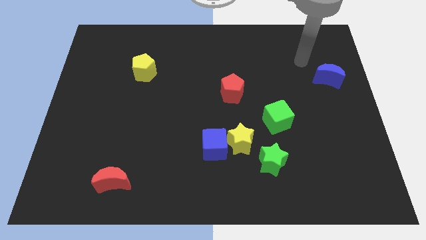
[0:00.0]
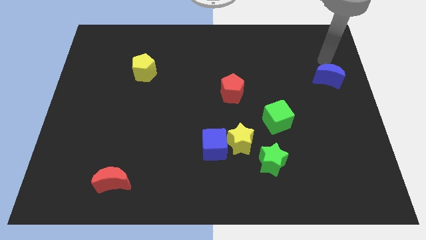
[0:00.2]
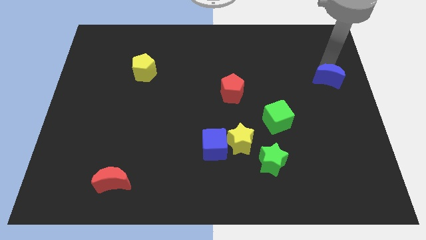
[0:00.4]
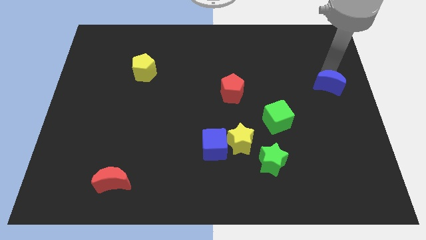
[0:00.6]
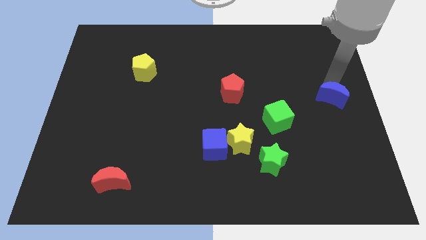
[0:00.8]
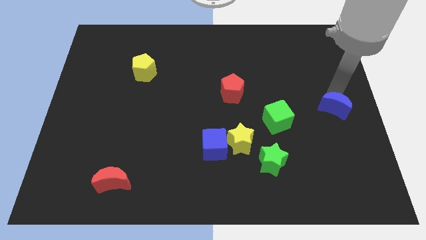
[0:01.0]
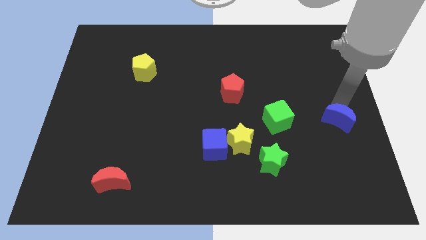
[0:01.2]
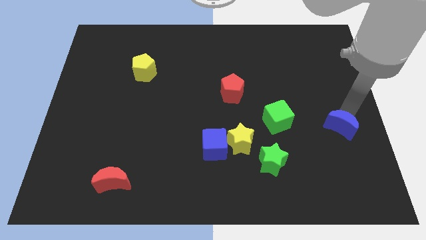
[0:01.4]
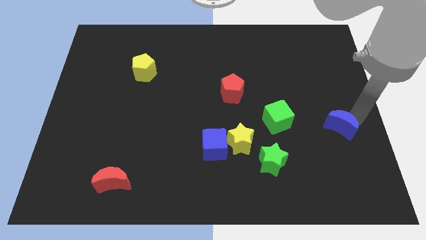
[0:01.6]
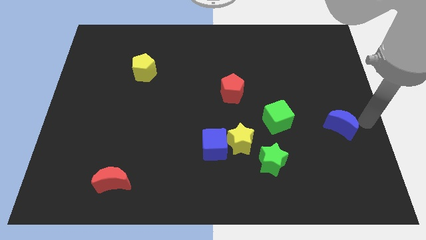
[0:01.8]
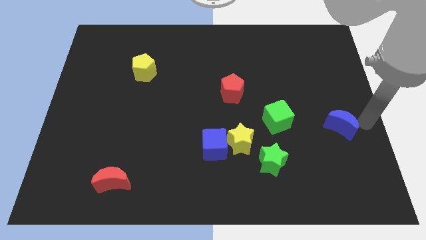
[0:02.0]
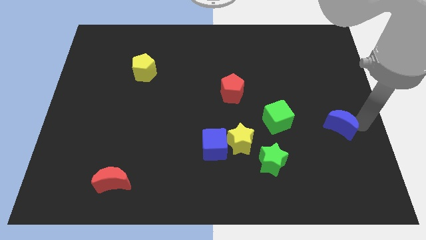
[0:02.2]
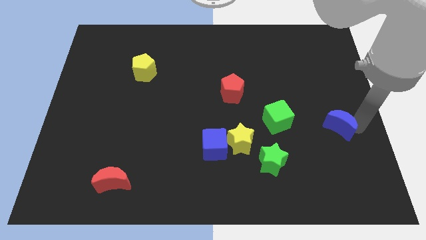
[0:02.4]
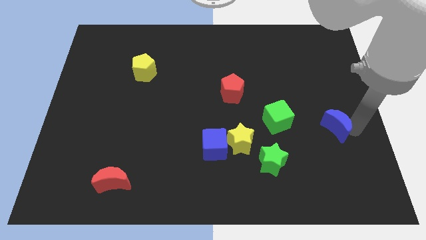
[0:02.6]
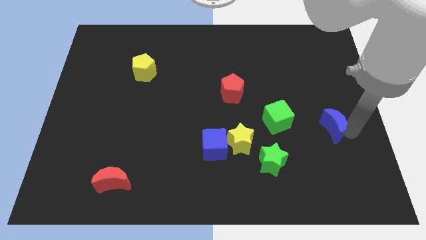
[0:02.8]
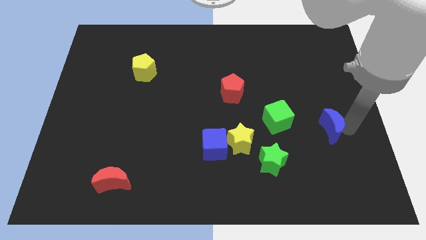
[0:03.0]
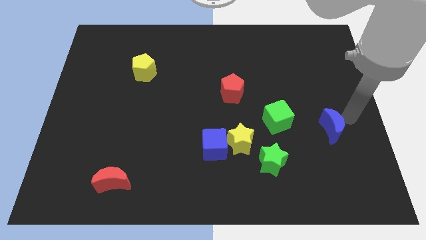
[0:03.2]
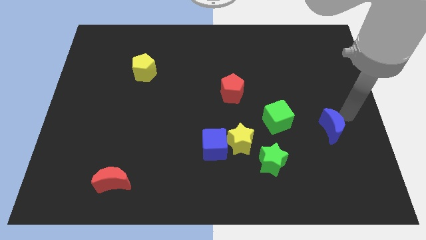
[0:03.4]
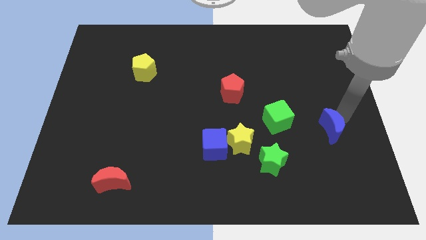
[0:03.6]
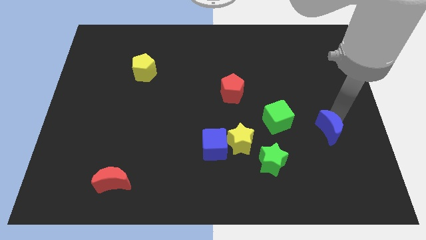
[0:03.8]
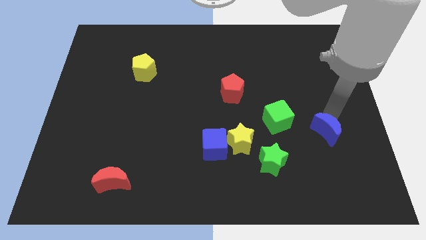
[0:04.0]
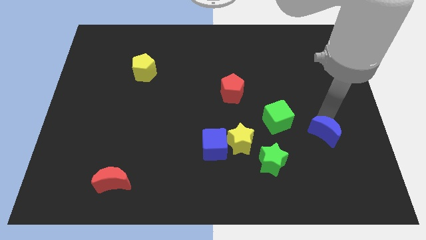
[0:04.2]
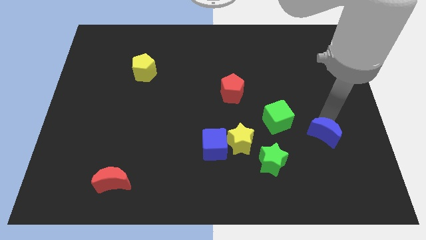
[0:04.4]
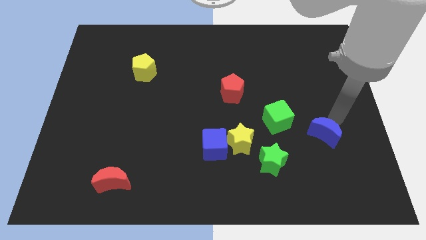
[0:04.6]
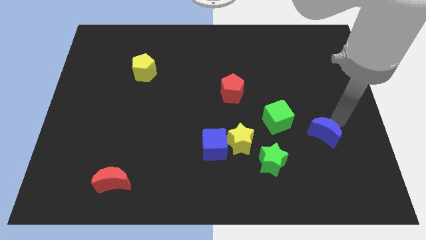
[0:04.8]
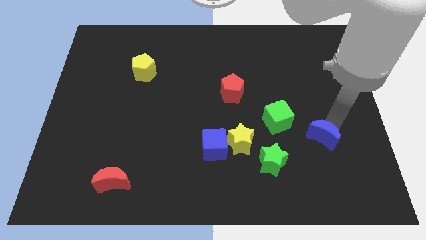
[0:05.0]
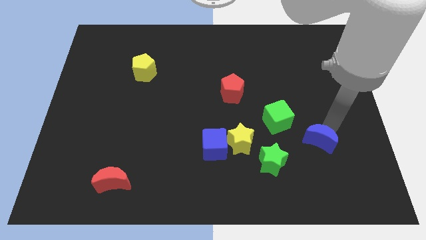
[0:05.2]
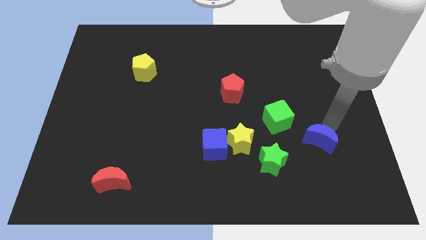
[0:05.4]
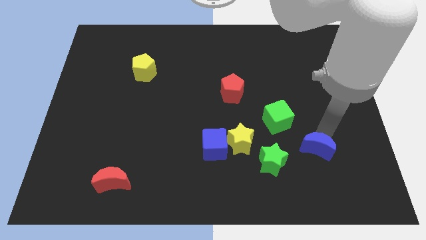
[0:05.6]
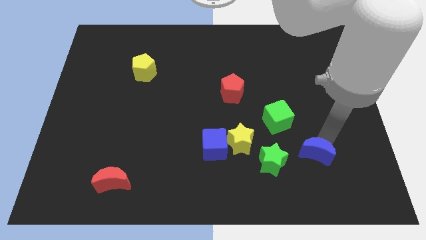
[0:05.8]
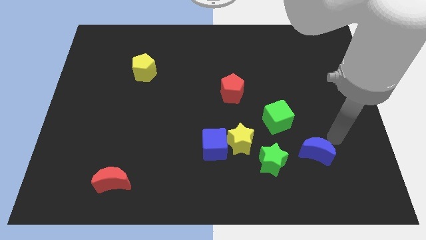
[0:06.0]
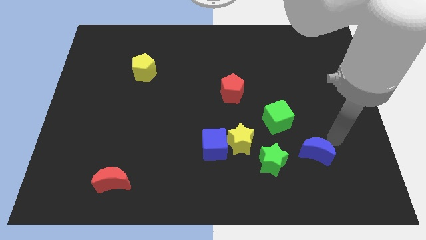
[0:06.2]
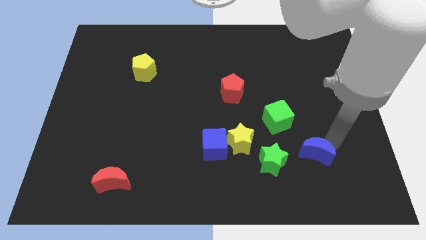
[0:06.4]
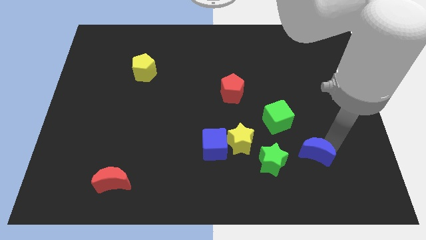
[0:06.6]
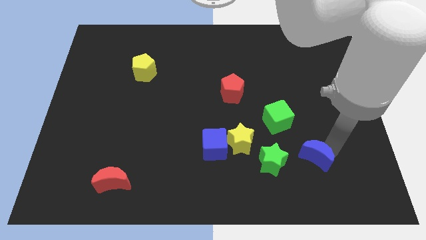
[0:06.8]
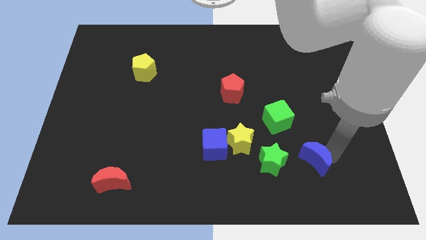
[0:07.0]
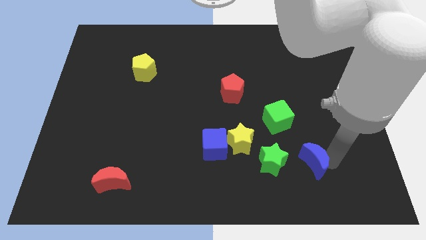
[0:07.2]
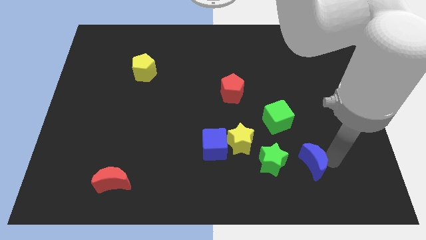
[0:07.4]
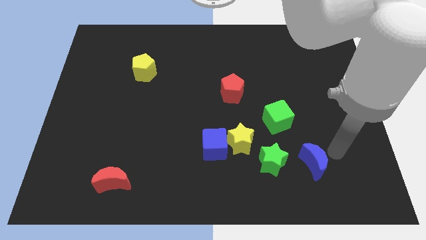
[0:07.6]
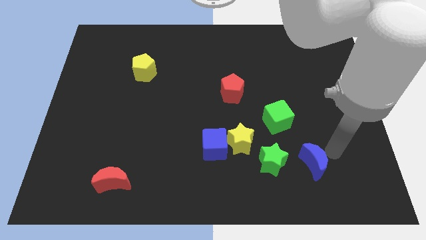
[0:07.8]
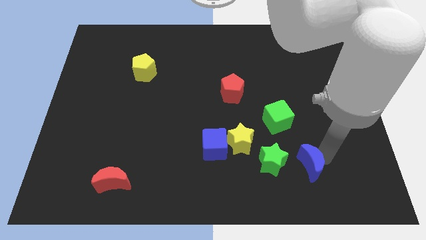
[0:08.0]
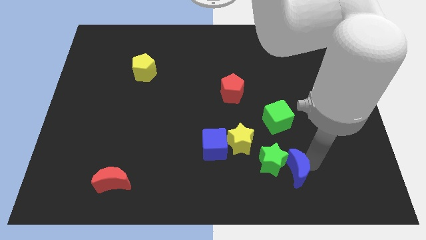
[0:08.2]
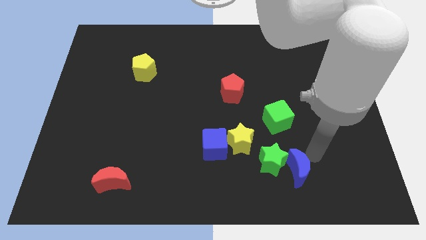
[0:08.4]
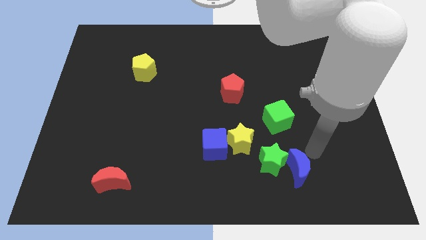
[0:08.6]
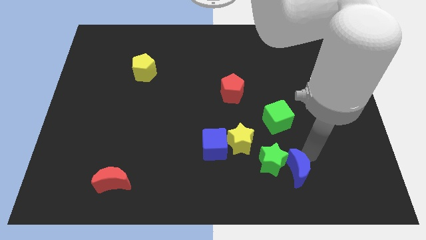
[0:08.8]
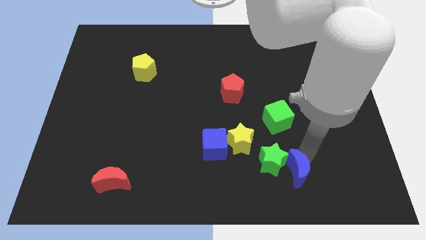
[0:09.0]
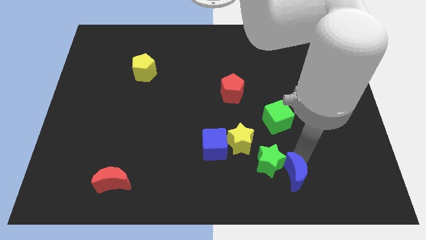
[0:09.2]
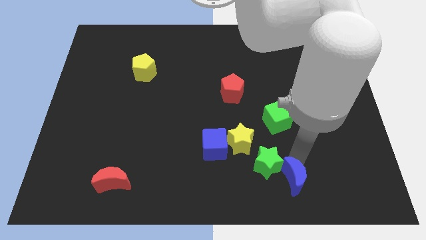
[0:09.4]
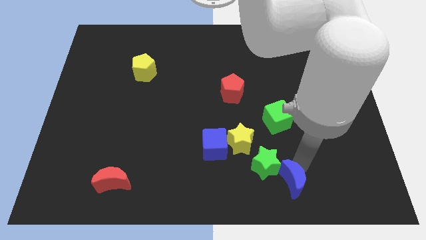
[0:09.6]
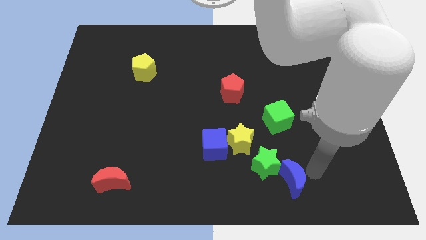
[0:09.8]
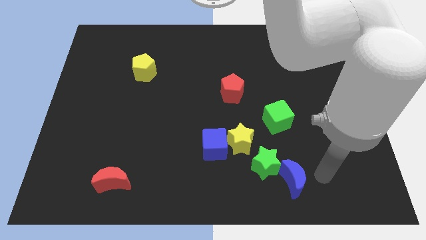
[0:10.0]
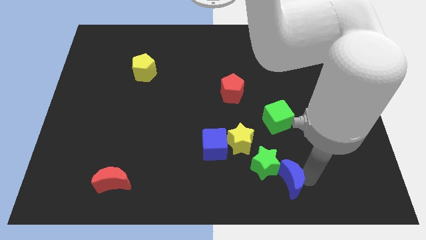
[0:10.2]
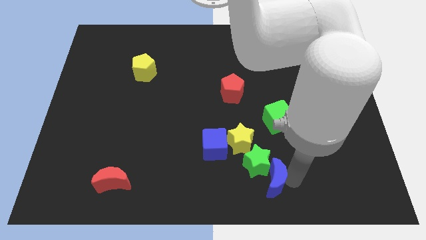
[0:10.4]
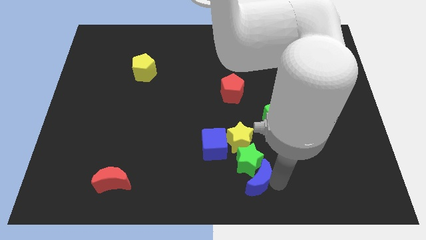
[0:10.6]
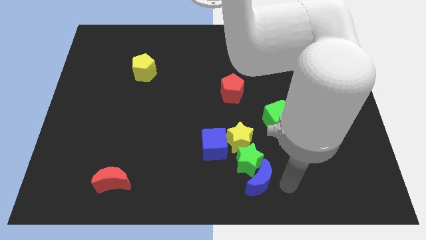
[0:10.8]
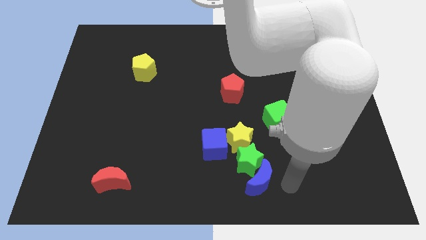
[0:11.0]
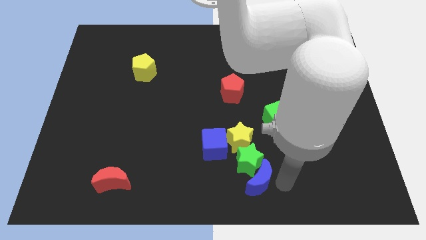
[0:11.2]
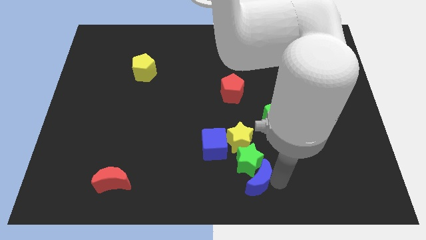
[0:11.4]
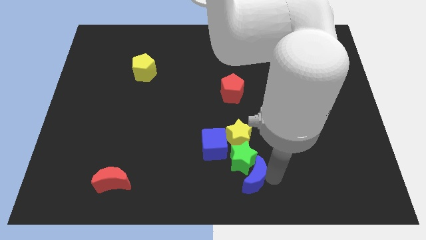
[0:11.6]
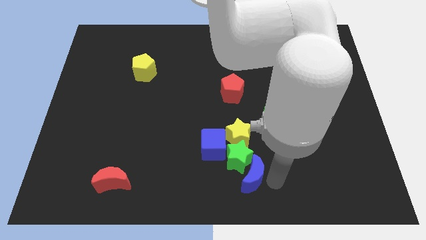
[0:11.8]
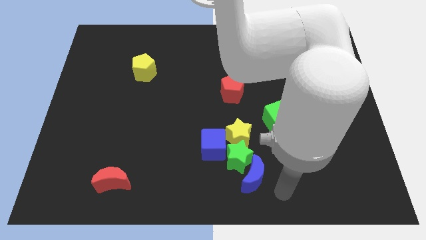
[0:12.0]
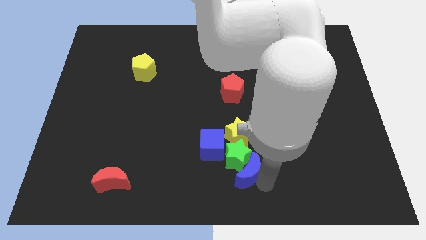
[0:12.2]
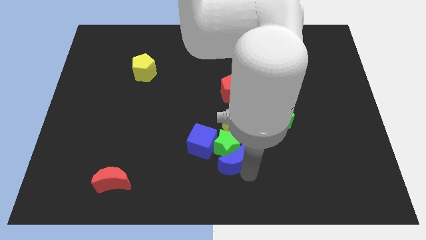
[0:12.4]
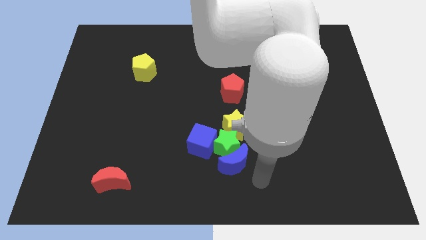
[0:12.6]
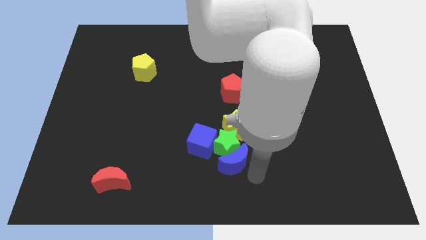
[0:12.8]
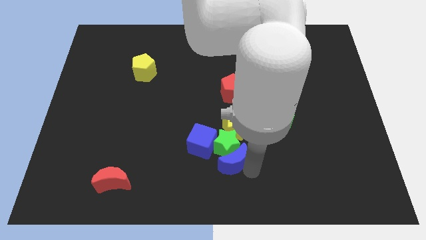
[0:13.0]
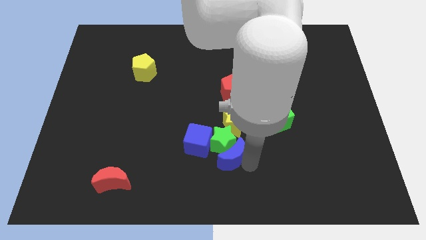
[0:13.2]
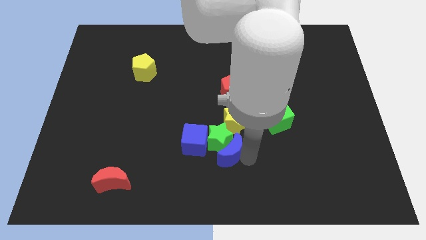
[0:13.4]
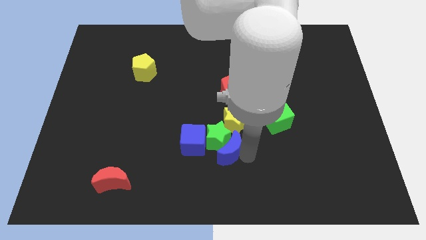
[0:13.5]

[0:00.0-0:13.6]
push the blue moon diagonally down and to the left of the yellow star

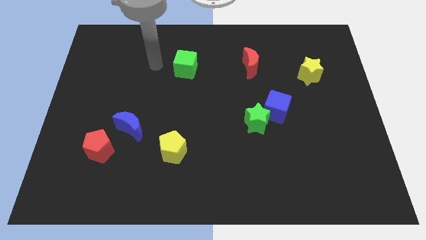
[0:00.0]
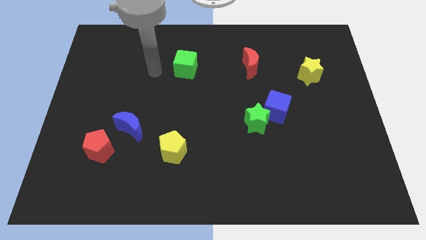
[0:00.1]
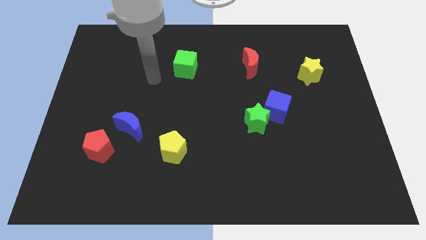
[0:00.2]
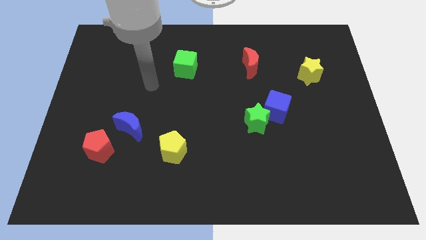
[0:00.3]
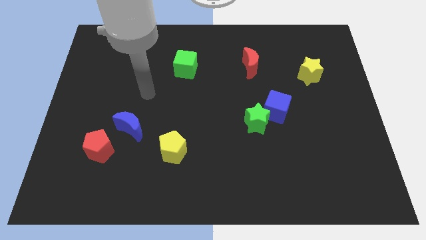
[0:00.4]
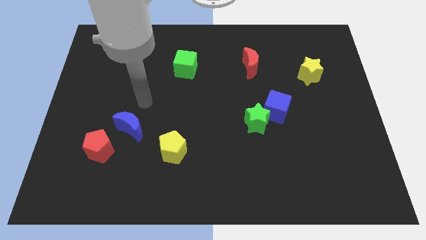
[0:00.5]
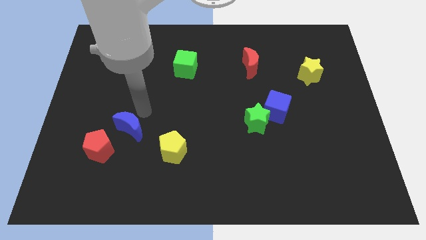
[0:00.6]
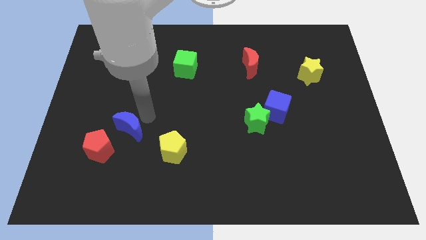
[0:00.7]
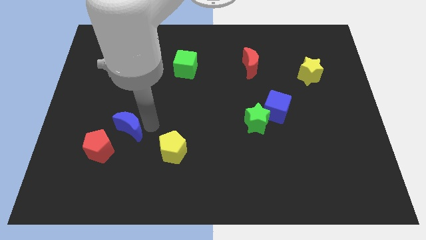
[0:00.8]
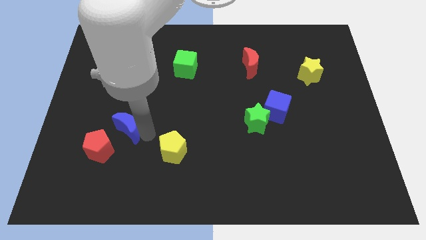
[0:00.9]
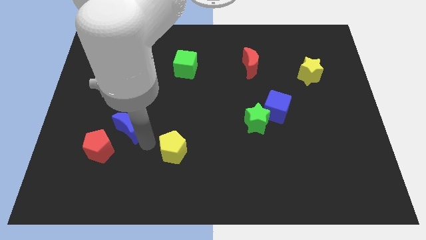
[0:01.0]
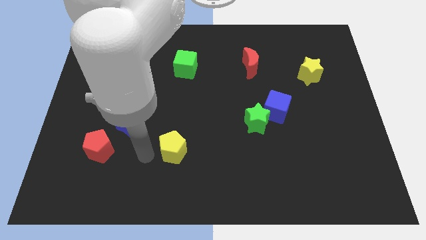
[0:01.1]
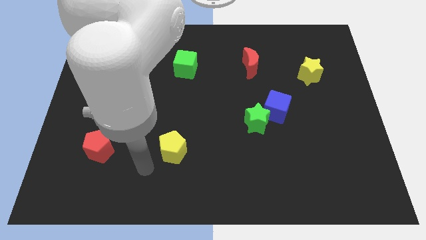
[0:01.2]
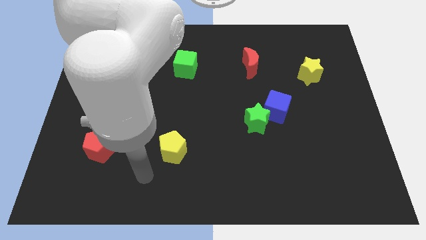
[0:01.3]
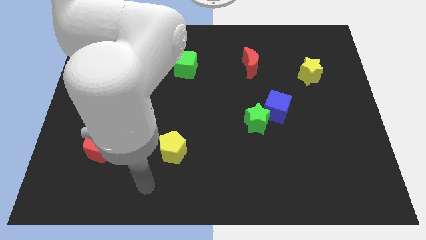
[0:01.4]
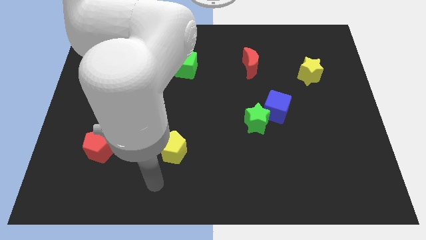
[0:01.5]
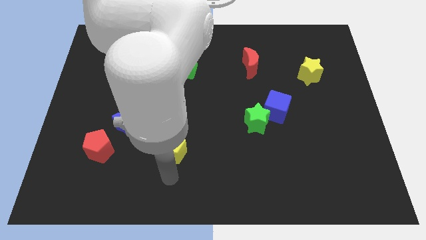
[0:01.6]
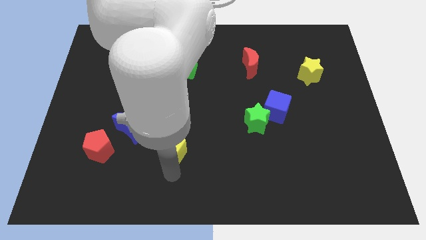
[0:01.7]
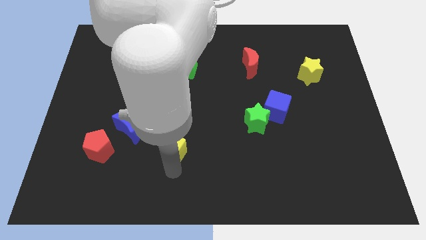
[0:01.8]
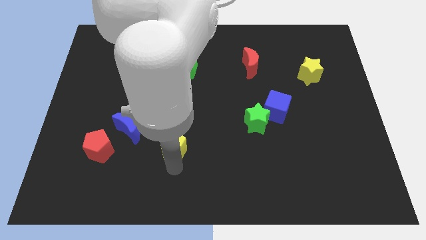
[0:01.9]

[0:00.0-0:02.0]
put the yellow pentagon to the right side of the blue moon
